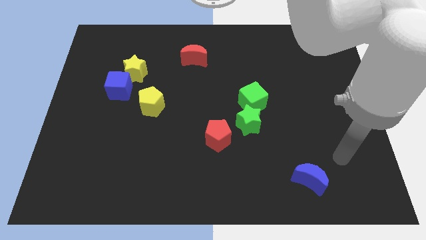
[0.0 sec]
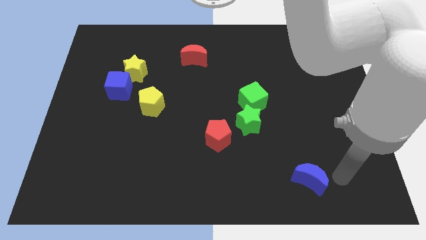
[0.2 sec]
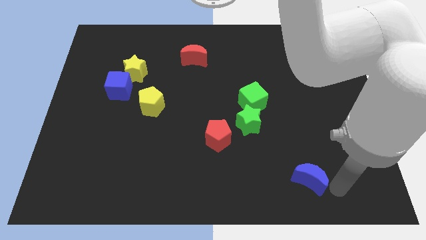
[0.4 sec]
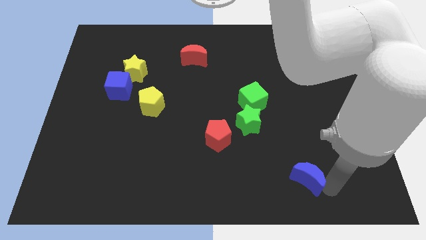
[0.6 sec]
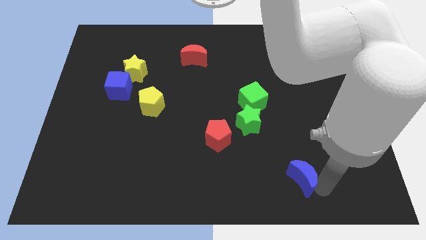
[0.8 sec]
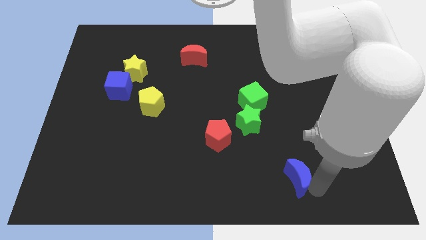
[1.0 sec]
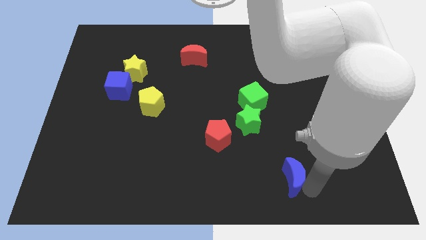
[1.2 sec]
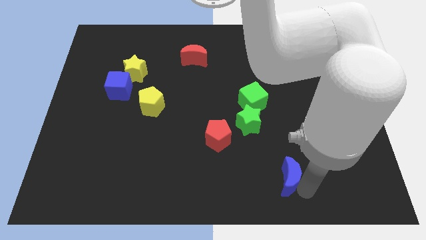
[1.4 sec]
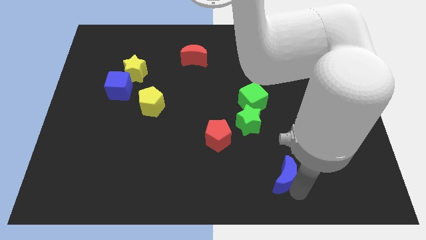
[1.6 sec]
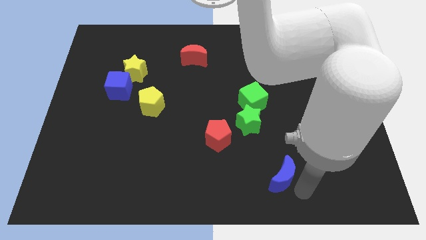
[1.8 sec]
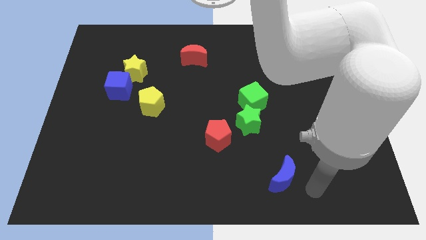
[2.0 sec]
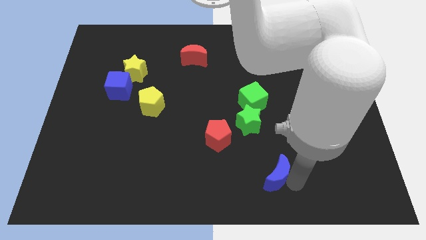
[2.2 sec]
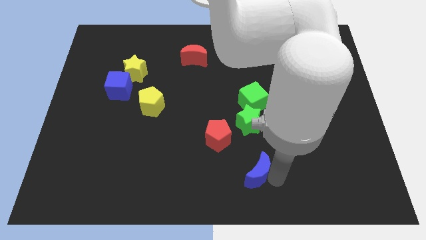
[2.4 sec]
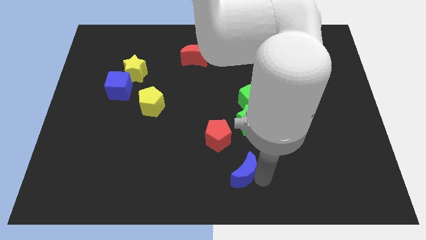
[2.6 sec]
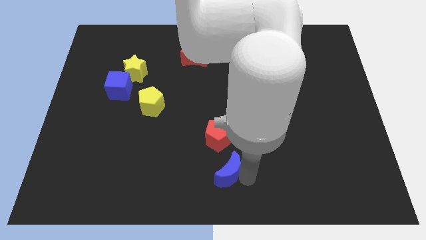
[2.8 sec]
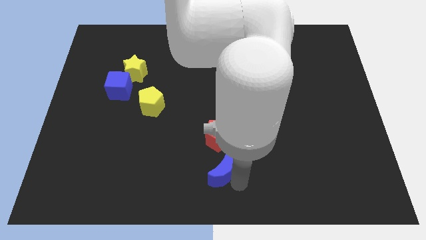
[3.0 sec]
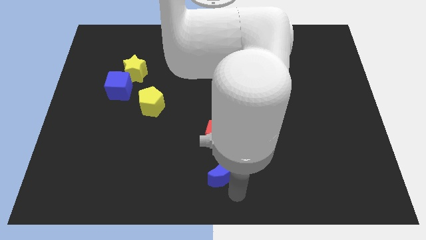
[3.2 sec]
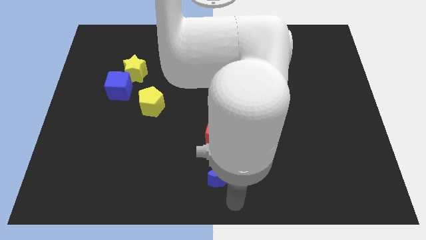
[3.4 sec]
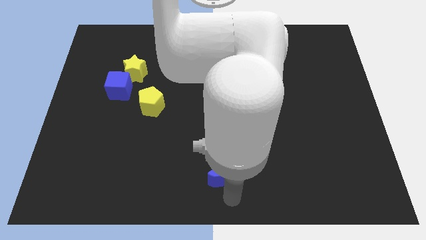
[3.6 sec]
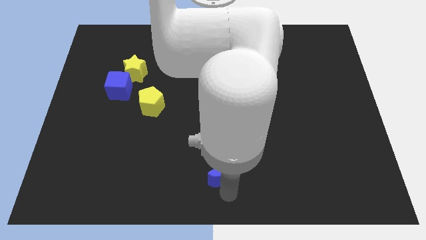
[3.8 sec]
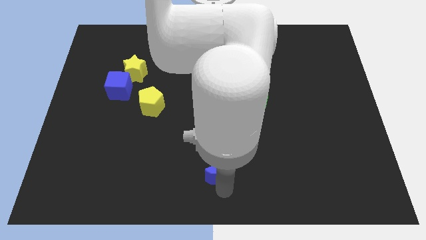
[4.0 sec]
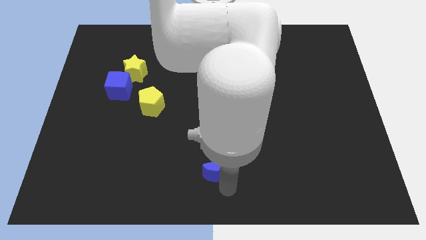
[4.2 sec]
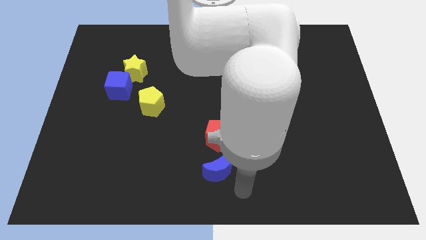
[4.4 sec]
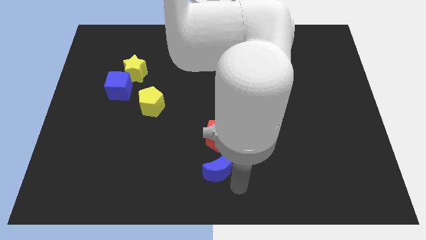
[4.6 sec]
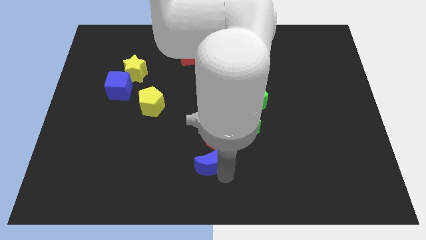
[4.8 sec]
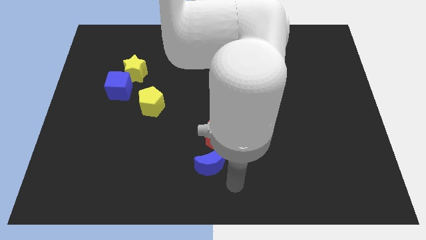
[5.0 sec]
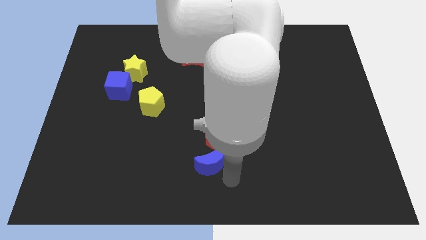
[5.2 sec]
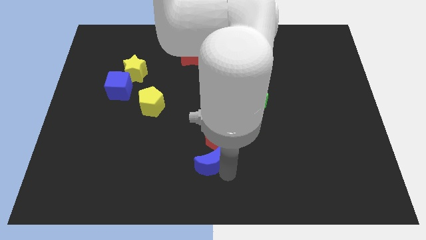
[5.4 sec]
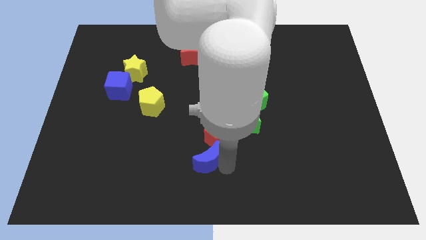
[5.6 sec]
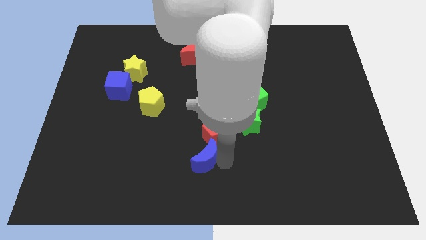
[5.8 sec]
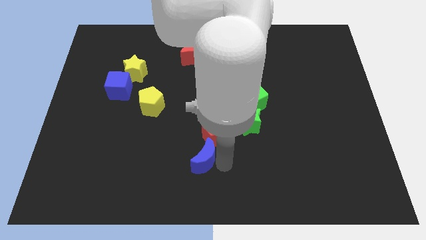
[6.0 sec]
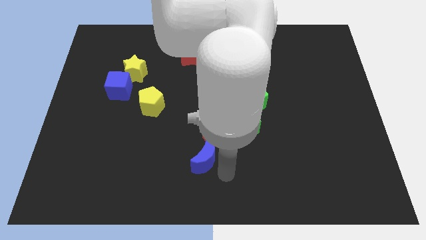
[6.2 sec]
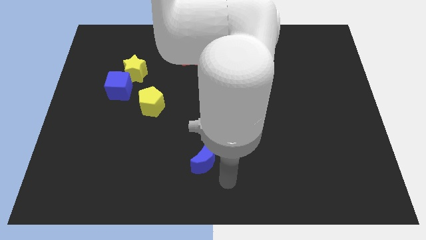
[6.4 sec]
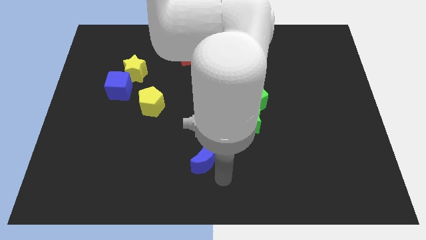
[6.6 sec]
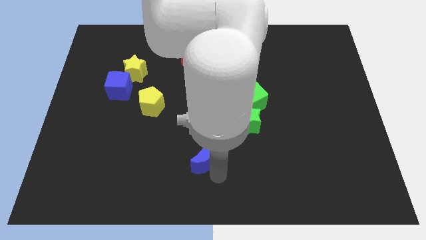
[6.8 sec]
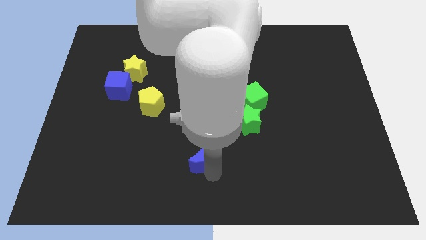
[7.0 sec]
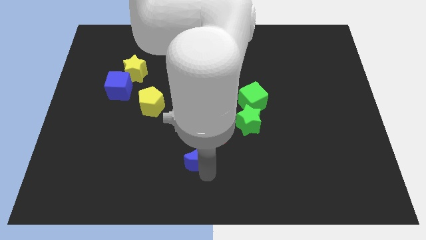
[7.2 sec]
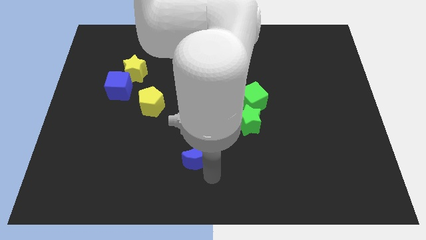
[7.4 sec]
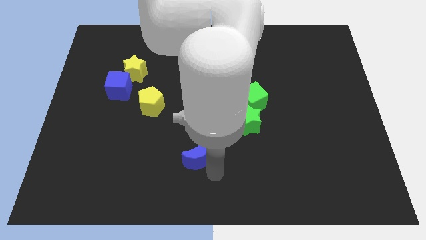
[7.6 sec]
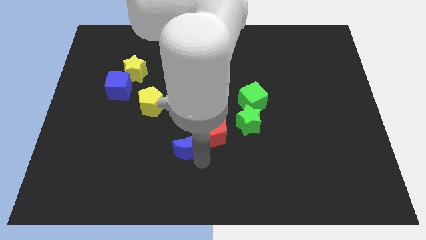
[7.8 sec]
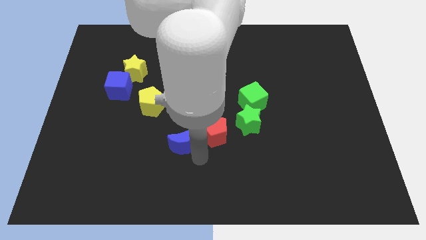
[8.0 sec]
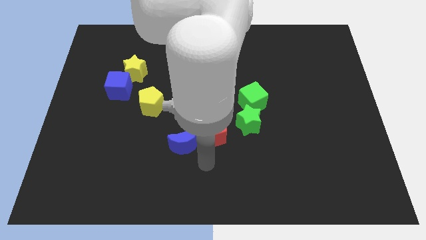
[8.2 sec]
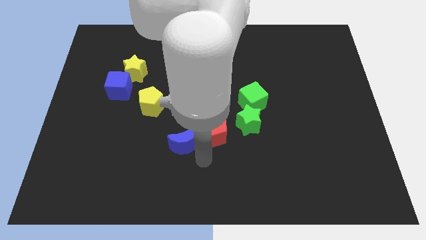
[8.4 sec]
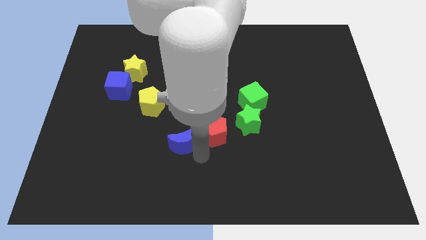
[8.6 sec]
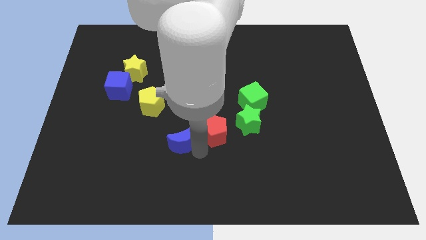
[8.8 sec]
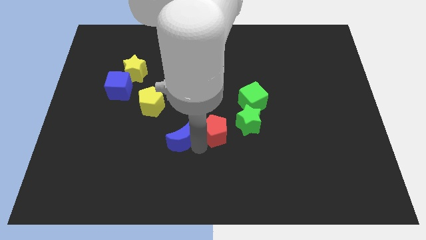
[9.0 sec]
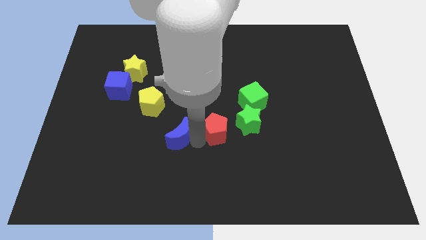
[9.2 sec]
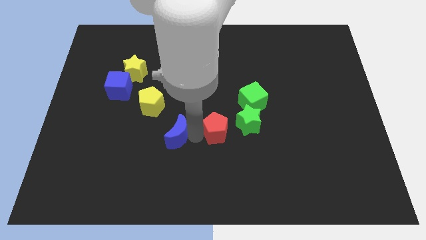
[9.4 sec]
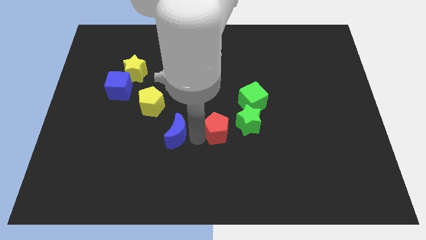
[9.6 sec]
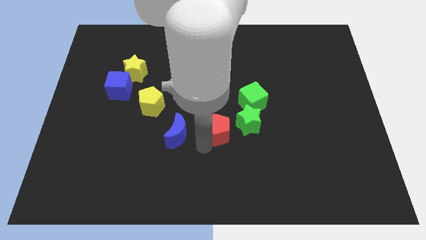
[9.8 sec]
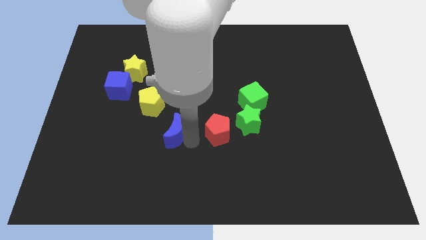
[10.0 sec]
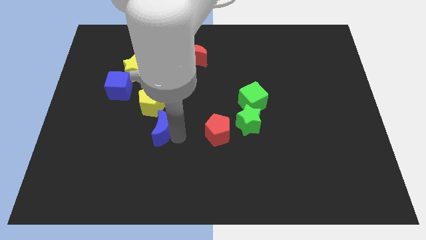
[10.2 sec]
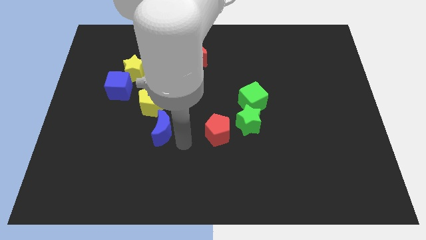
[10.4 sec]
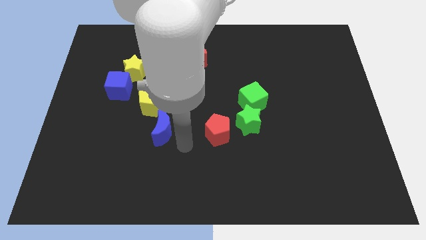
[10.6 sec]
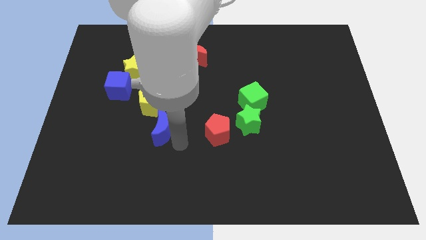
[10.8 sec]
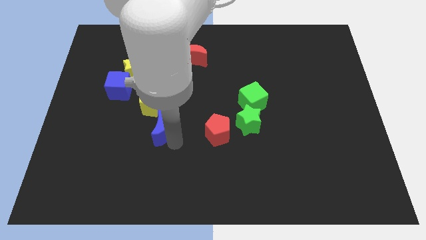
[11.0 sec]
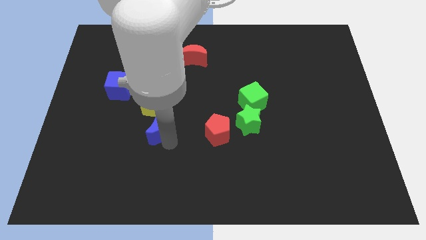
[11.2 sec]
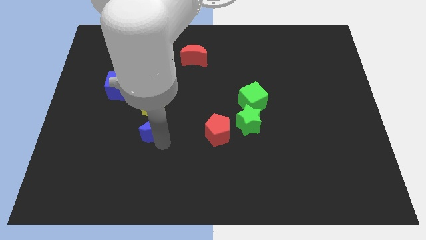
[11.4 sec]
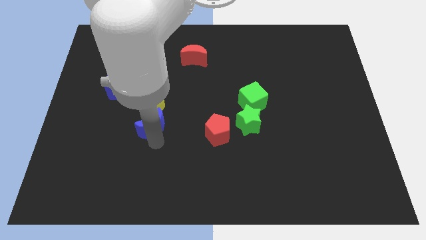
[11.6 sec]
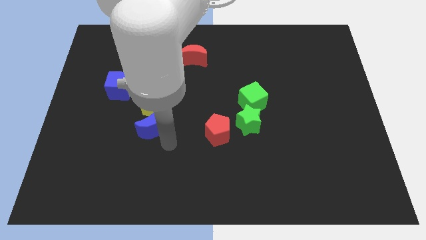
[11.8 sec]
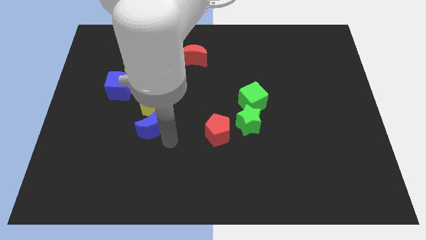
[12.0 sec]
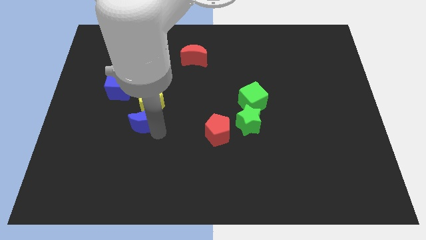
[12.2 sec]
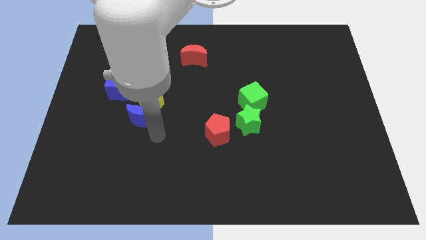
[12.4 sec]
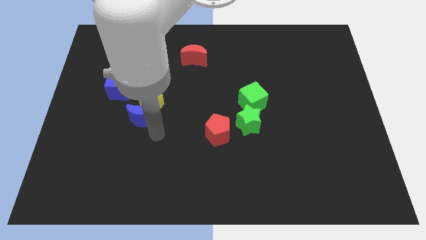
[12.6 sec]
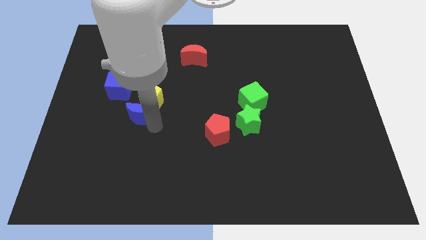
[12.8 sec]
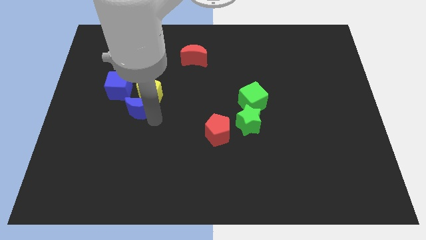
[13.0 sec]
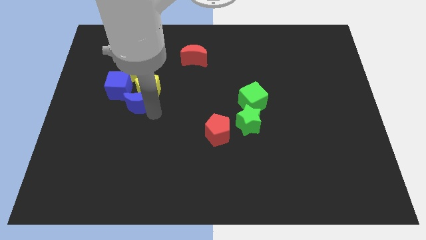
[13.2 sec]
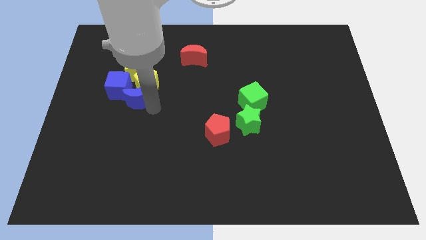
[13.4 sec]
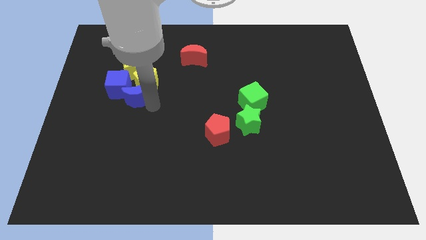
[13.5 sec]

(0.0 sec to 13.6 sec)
put the blue moon next to the blue cube

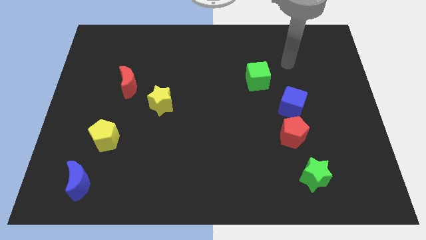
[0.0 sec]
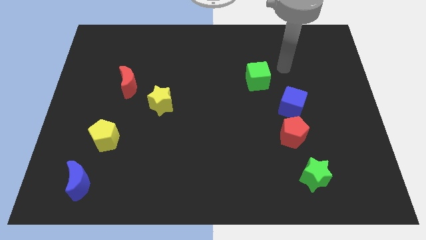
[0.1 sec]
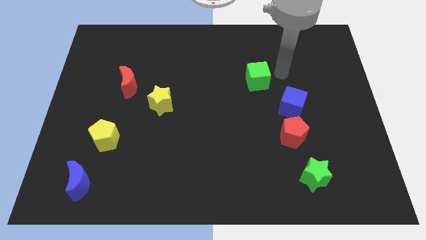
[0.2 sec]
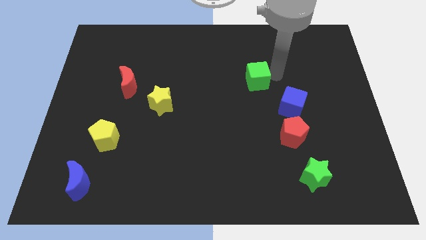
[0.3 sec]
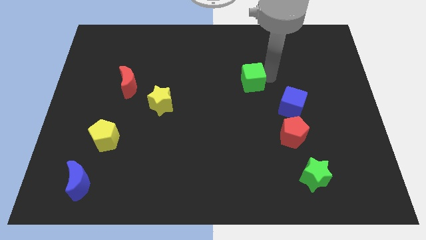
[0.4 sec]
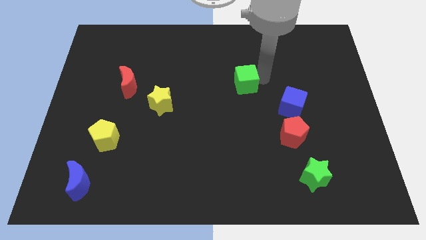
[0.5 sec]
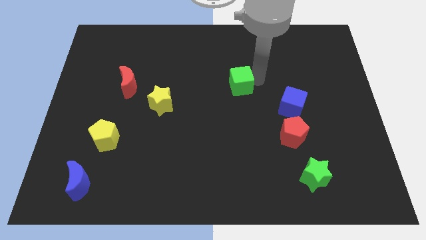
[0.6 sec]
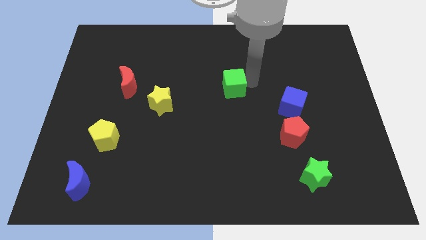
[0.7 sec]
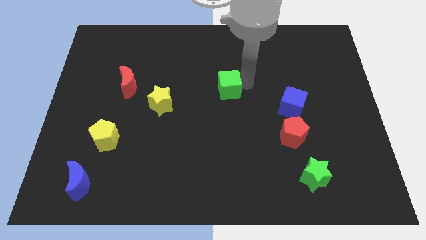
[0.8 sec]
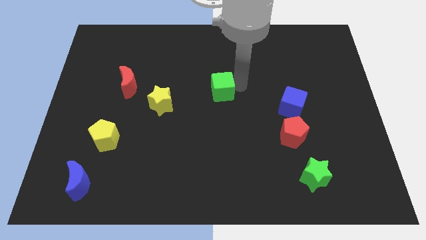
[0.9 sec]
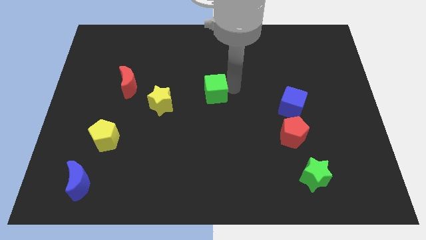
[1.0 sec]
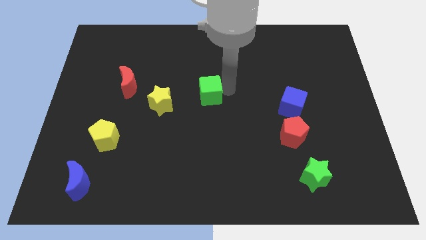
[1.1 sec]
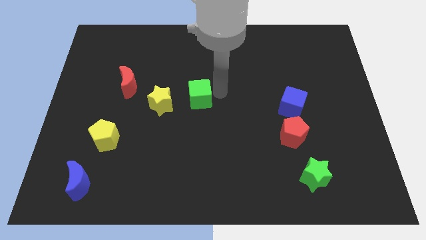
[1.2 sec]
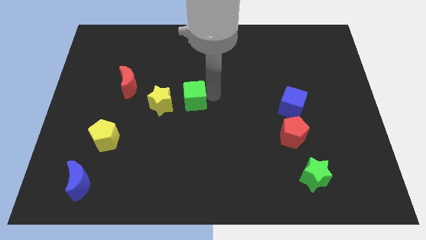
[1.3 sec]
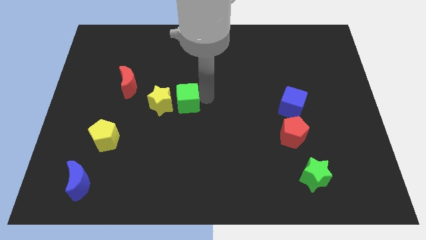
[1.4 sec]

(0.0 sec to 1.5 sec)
move the green cube next to the yellow star
